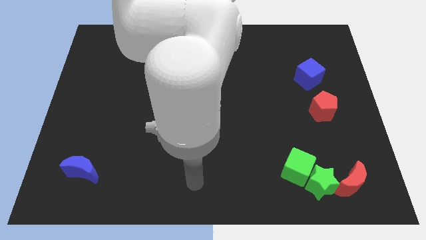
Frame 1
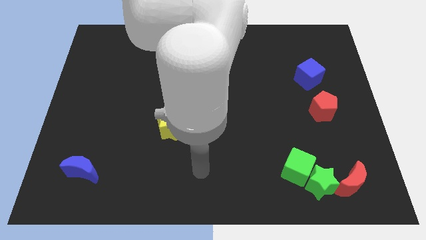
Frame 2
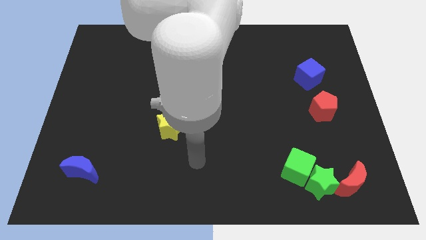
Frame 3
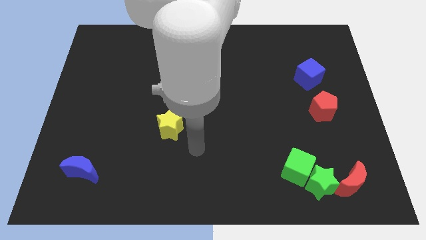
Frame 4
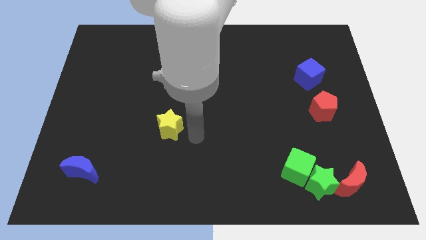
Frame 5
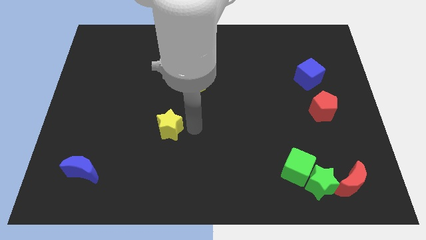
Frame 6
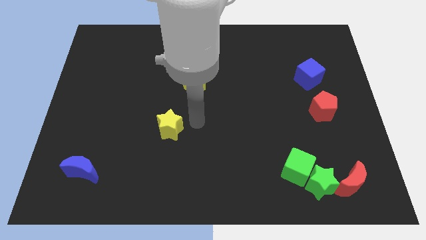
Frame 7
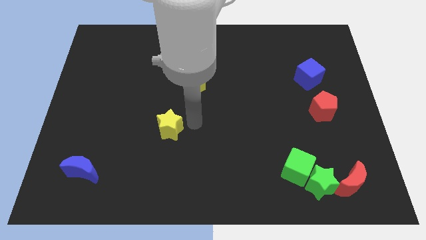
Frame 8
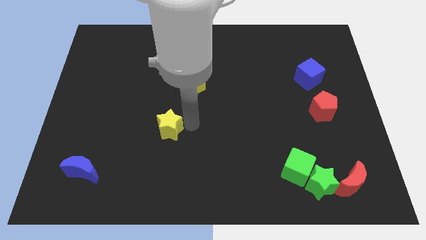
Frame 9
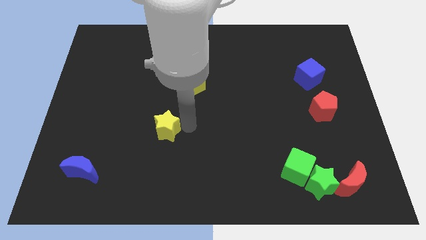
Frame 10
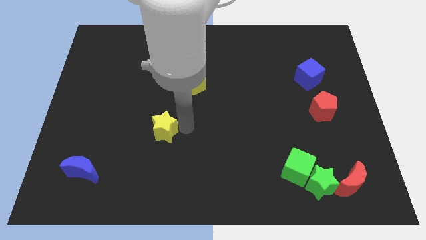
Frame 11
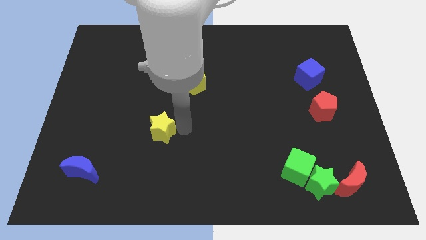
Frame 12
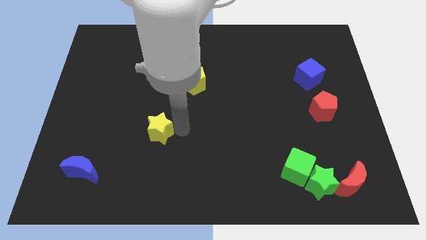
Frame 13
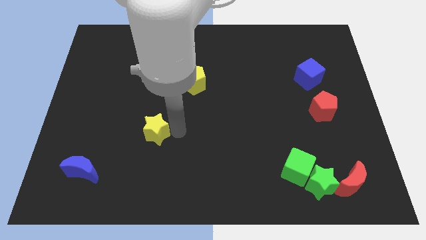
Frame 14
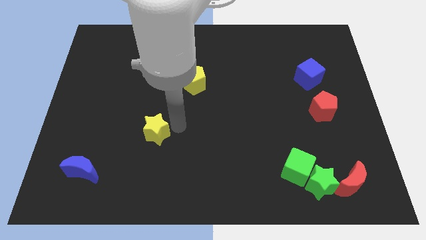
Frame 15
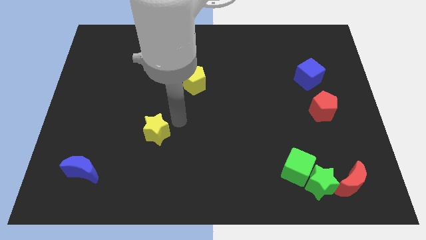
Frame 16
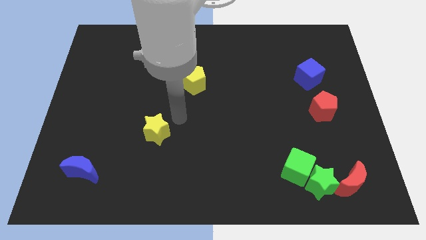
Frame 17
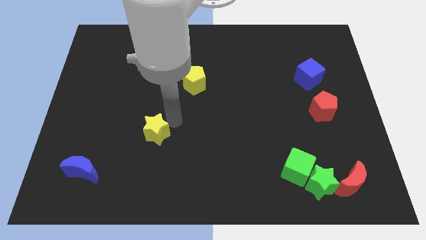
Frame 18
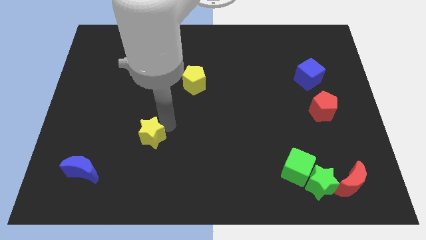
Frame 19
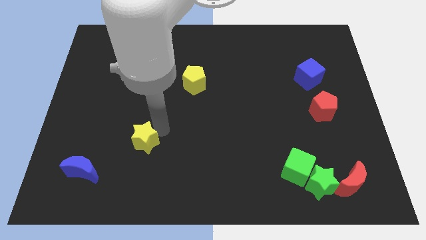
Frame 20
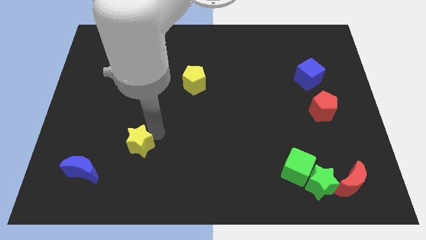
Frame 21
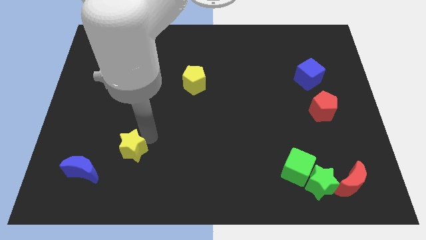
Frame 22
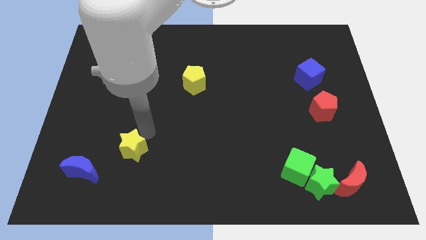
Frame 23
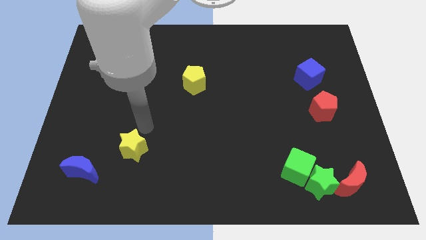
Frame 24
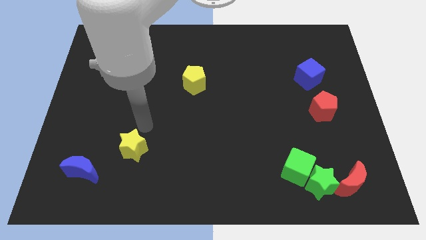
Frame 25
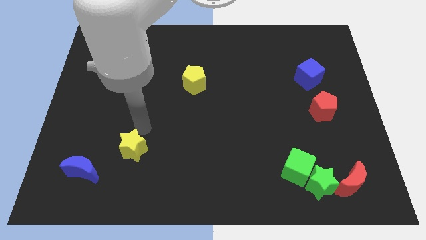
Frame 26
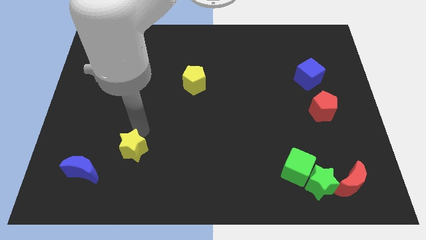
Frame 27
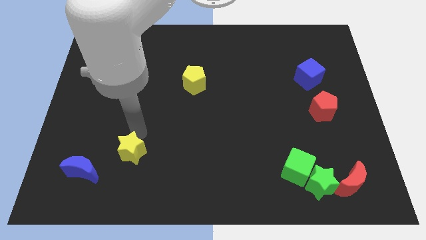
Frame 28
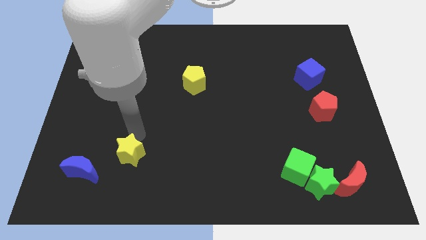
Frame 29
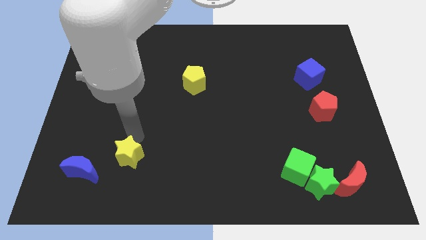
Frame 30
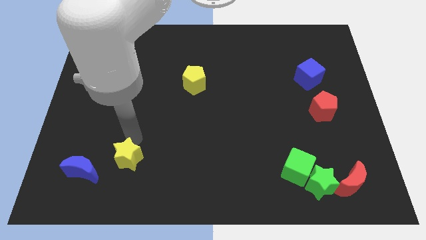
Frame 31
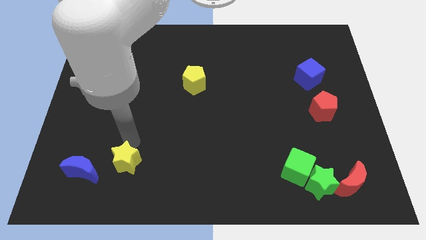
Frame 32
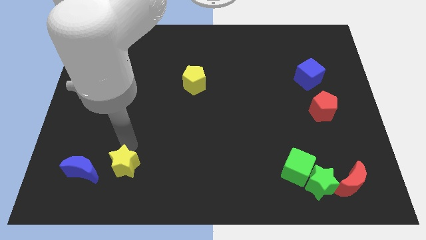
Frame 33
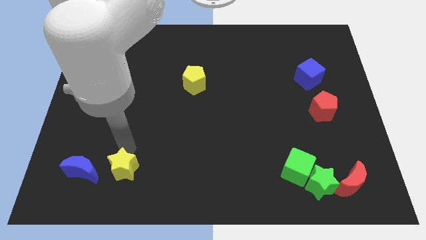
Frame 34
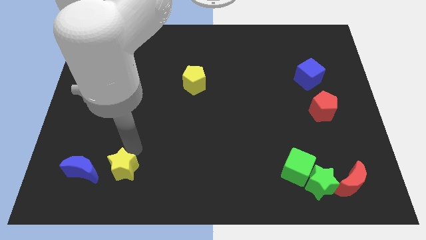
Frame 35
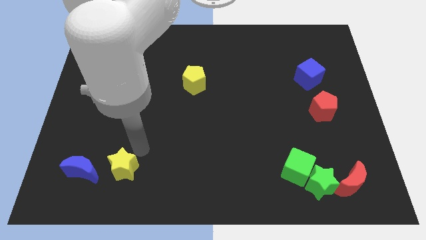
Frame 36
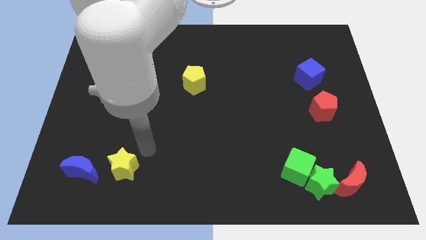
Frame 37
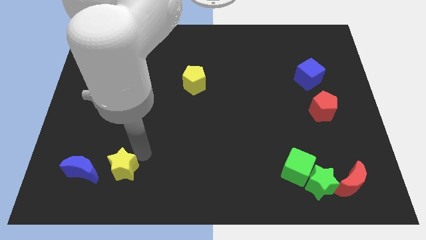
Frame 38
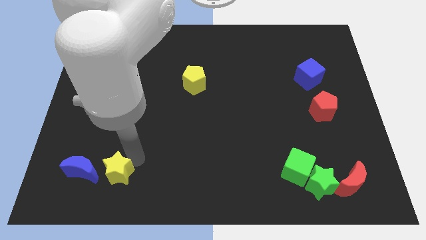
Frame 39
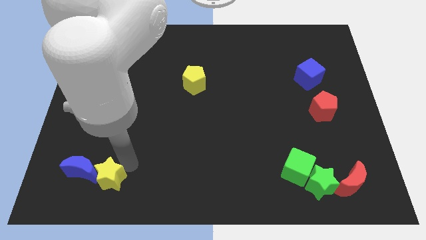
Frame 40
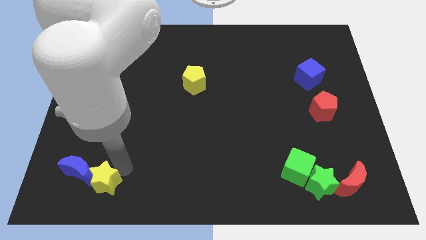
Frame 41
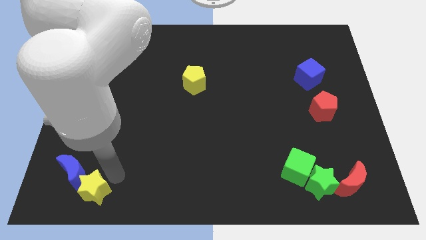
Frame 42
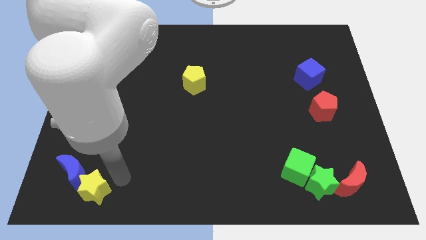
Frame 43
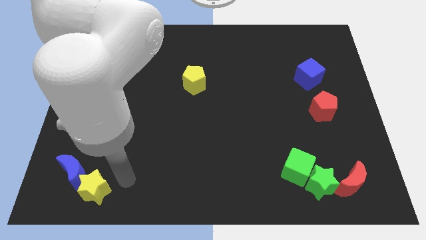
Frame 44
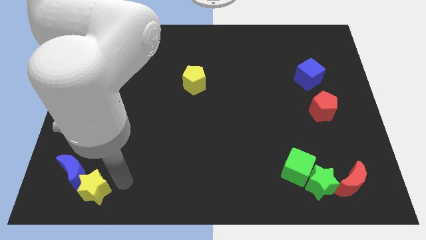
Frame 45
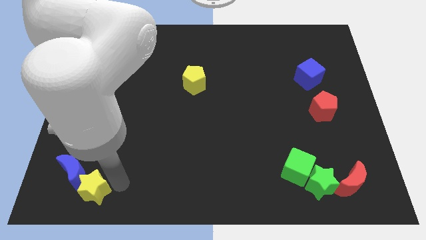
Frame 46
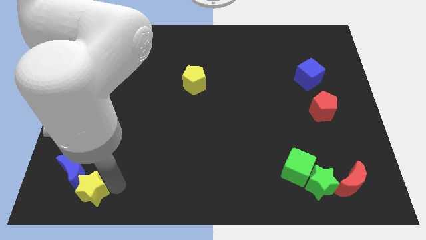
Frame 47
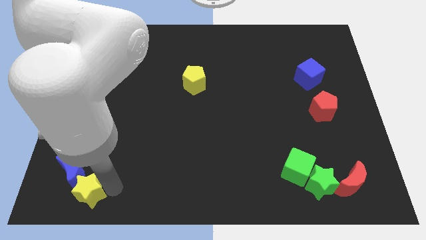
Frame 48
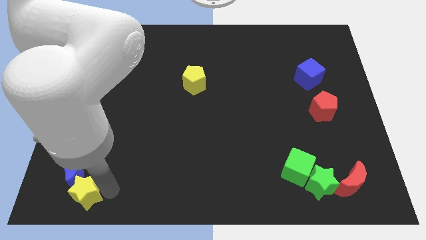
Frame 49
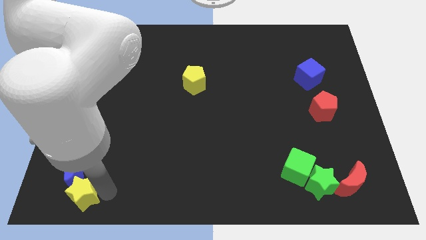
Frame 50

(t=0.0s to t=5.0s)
slide the yellow star to the bottom left corner

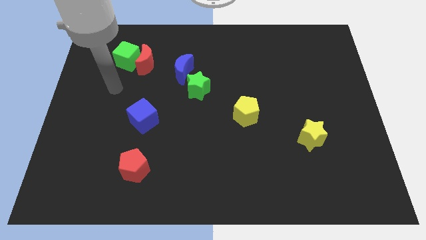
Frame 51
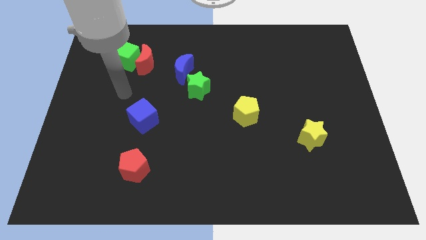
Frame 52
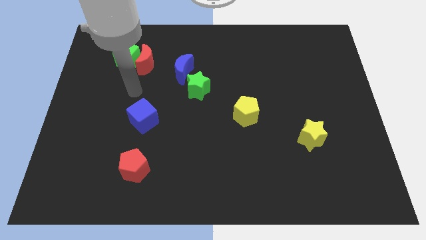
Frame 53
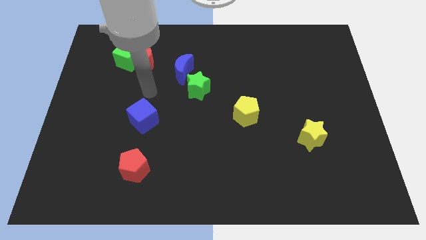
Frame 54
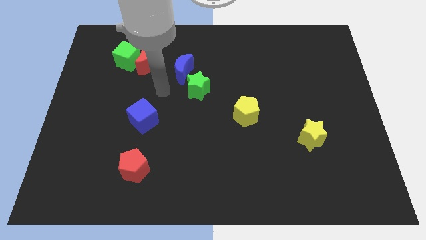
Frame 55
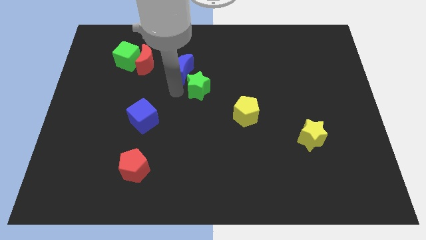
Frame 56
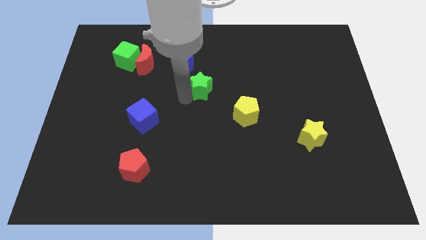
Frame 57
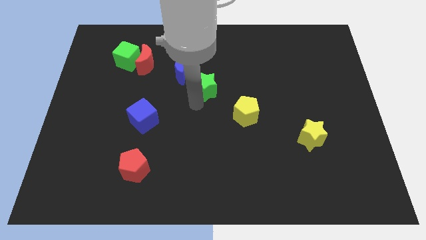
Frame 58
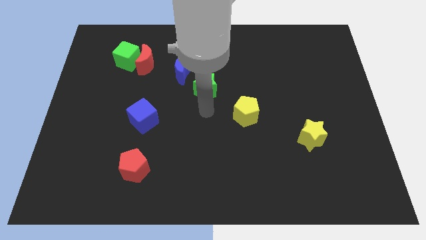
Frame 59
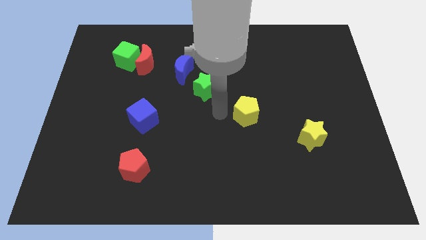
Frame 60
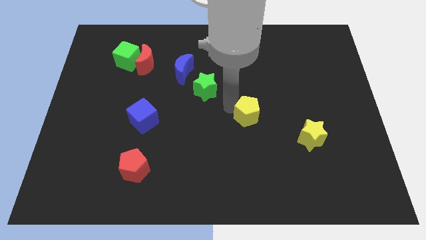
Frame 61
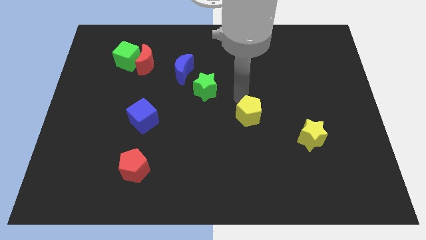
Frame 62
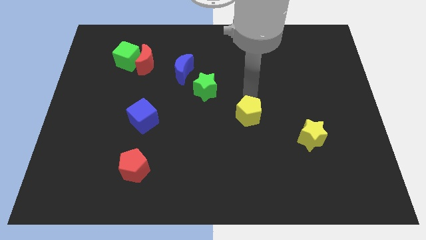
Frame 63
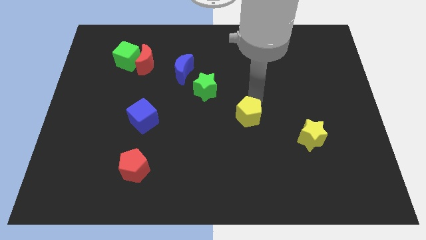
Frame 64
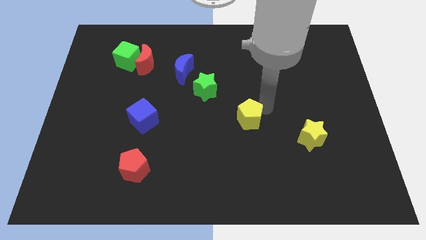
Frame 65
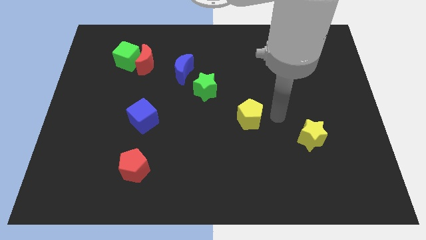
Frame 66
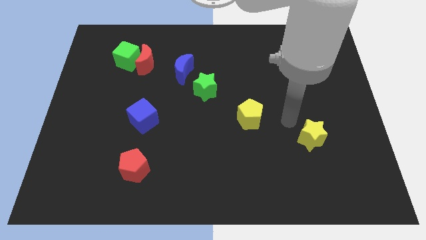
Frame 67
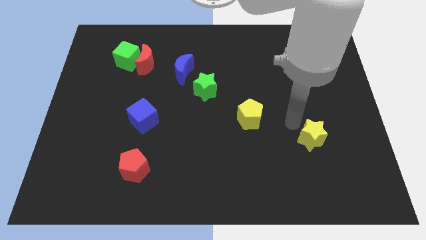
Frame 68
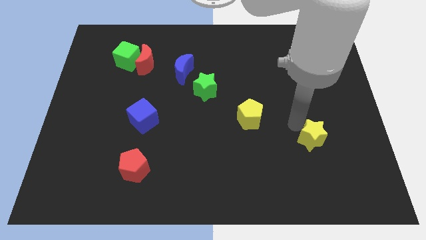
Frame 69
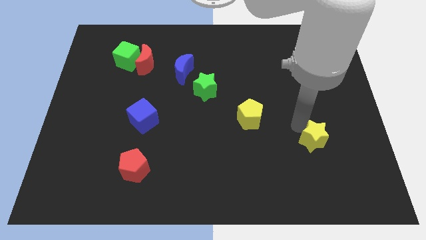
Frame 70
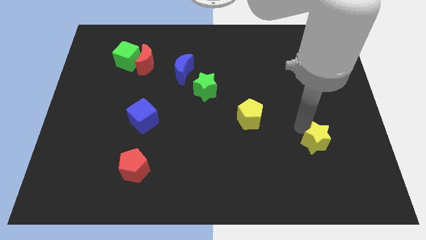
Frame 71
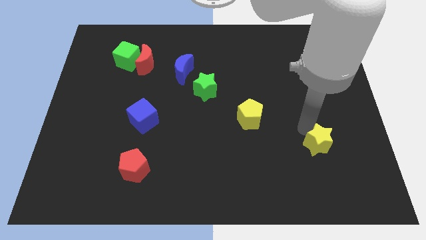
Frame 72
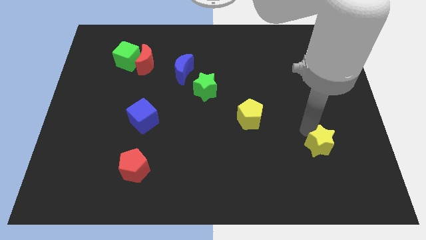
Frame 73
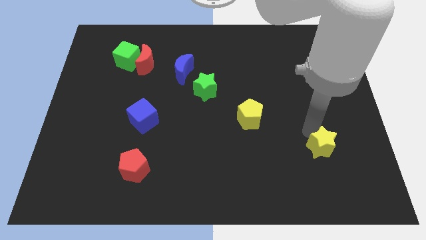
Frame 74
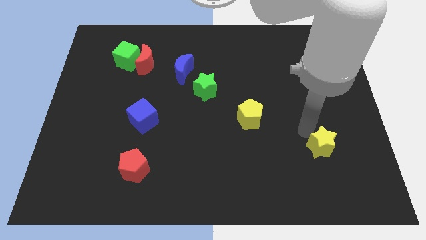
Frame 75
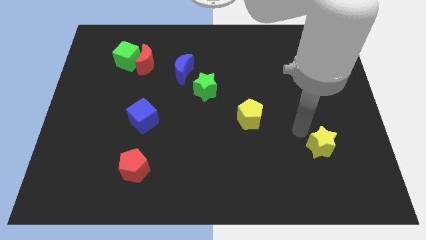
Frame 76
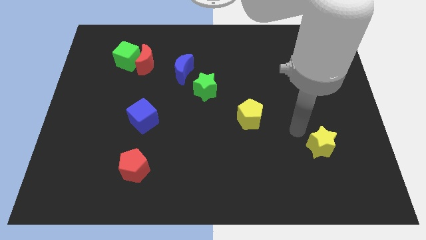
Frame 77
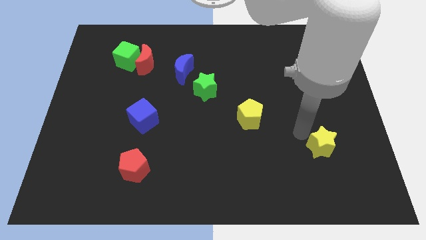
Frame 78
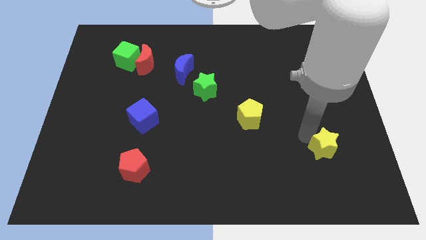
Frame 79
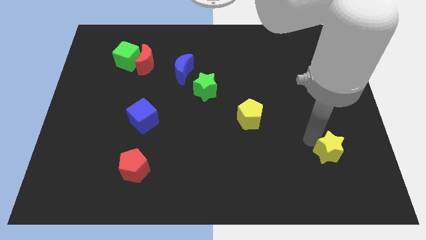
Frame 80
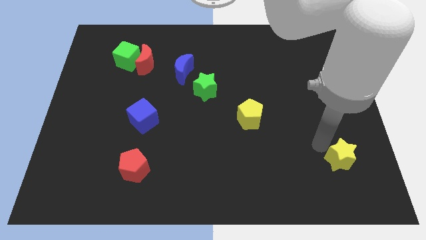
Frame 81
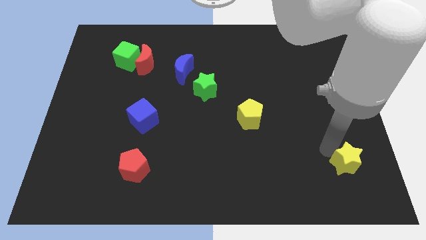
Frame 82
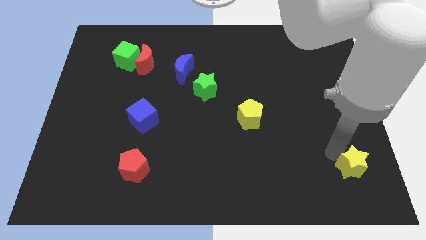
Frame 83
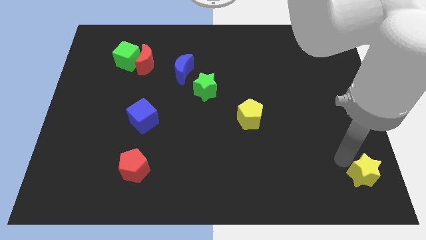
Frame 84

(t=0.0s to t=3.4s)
slide the yellow star to the lower right corner
